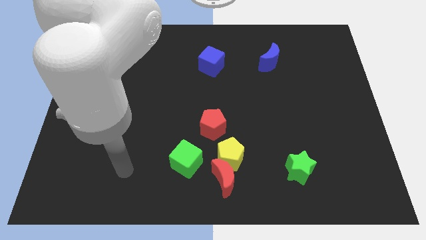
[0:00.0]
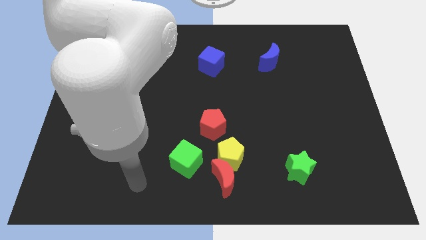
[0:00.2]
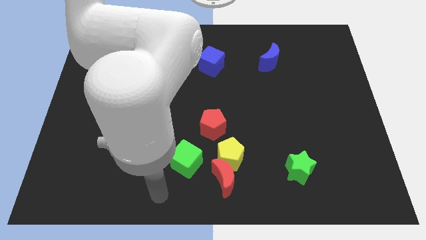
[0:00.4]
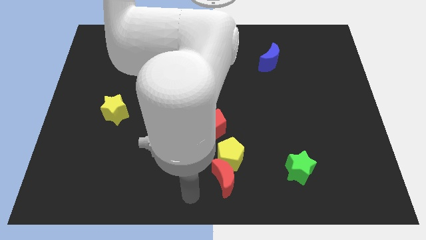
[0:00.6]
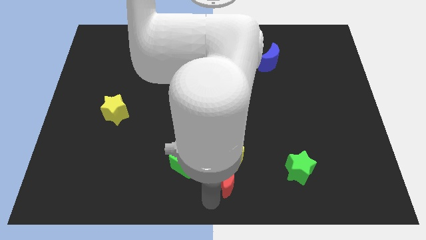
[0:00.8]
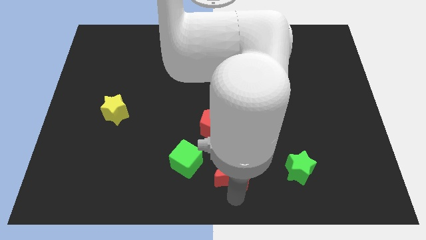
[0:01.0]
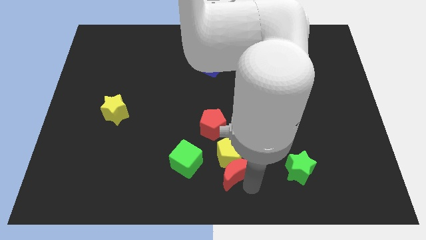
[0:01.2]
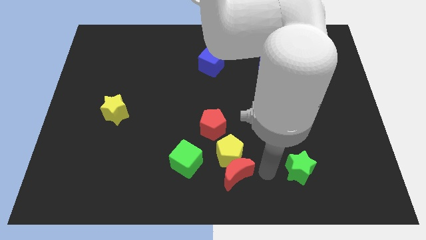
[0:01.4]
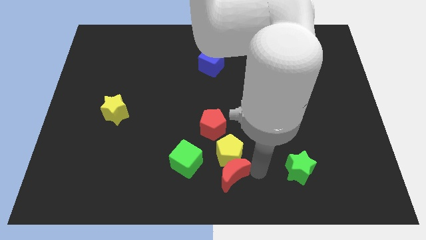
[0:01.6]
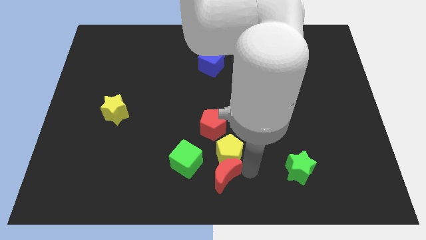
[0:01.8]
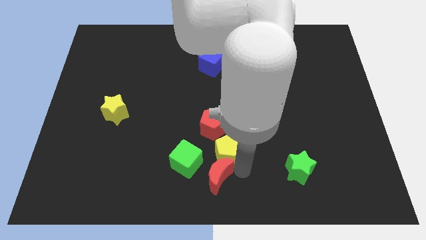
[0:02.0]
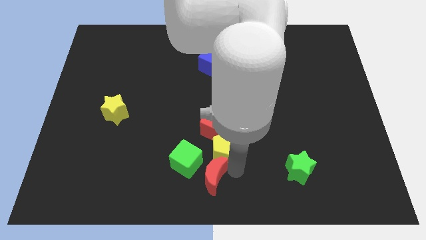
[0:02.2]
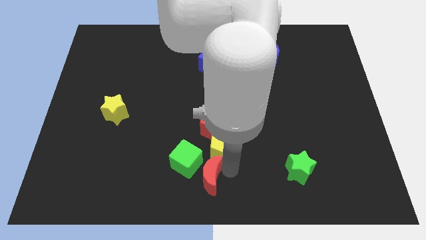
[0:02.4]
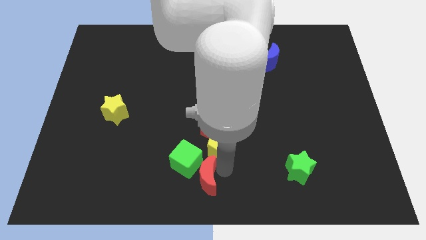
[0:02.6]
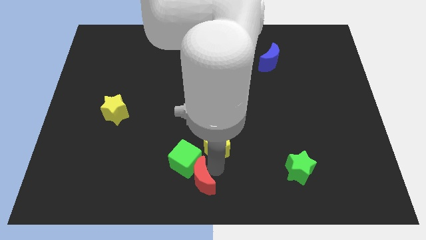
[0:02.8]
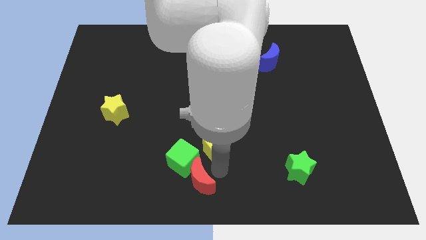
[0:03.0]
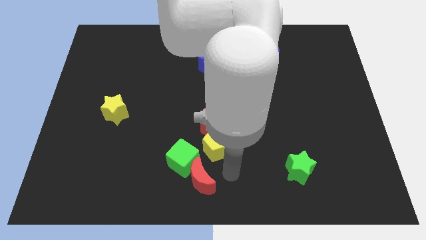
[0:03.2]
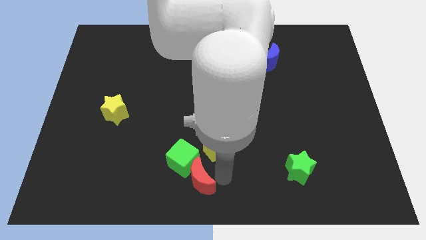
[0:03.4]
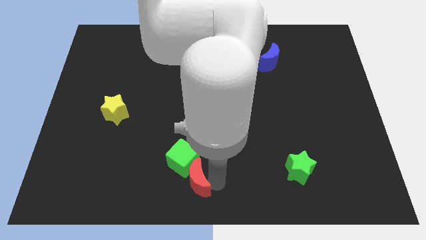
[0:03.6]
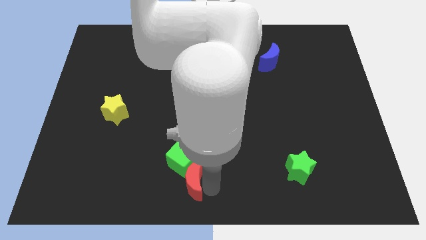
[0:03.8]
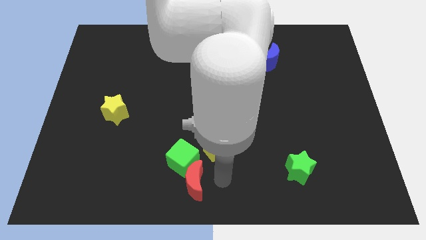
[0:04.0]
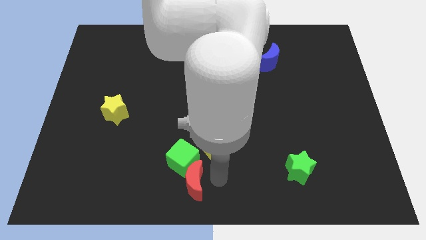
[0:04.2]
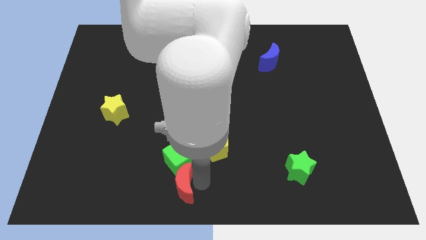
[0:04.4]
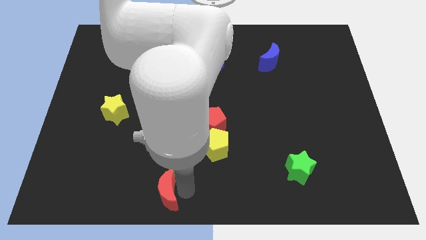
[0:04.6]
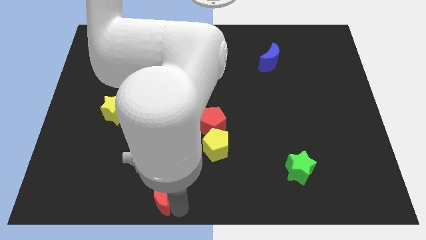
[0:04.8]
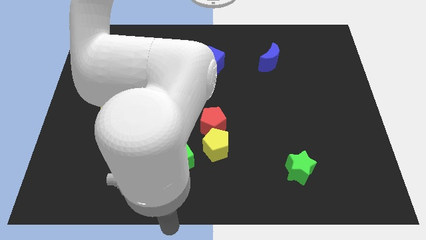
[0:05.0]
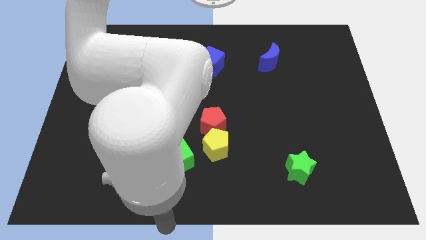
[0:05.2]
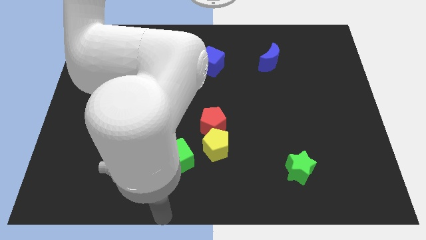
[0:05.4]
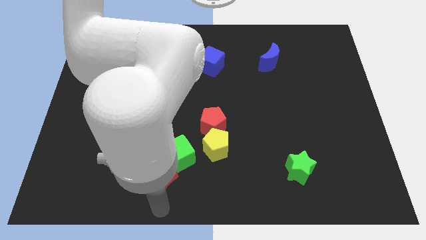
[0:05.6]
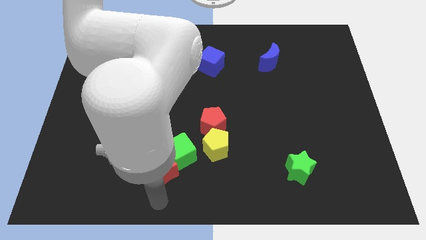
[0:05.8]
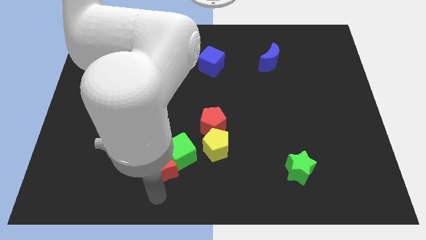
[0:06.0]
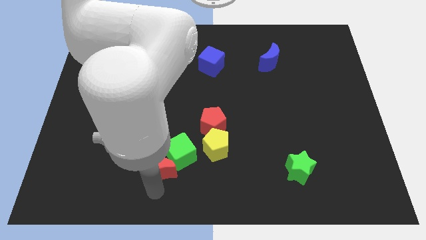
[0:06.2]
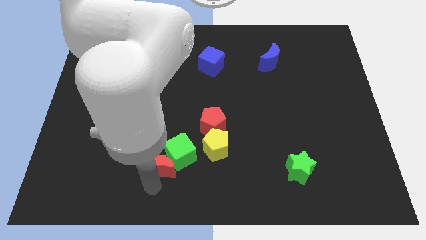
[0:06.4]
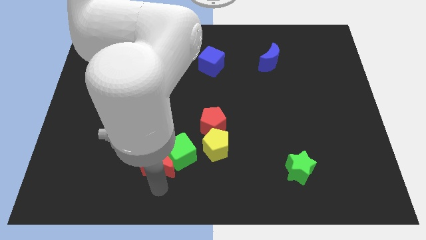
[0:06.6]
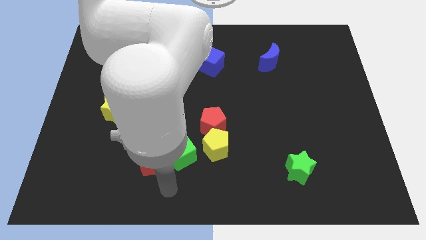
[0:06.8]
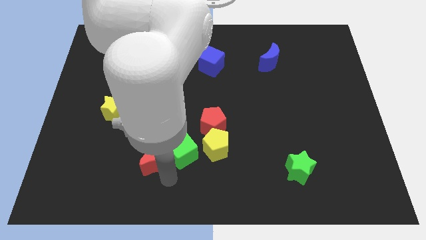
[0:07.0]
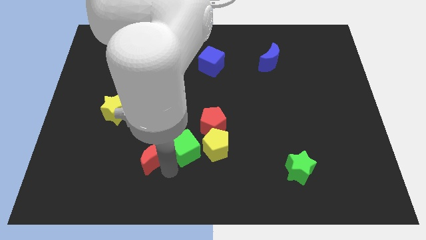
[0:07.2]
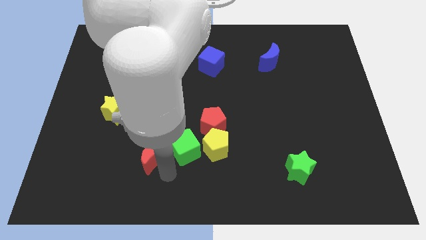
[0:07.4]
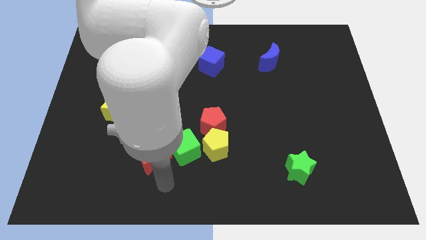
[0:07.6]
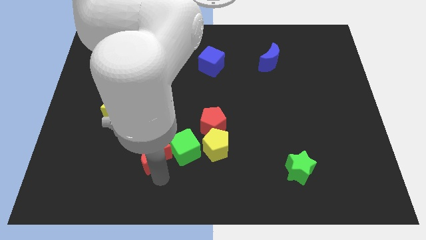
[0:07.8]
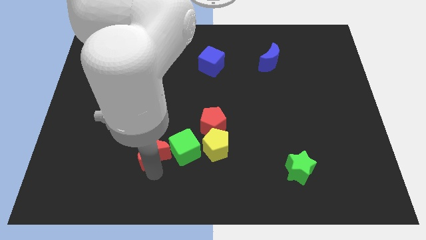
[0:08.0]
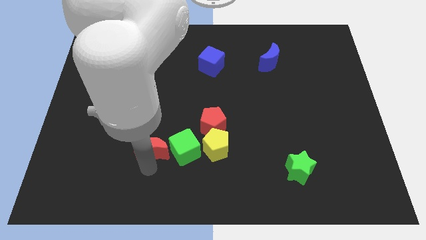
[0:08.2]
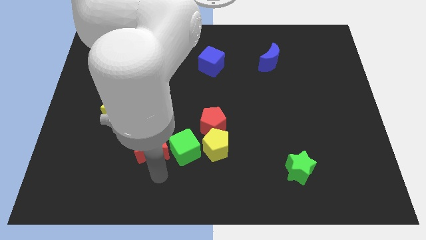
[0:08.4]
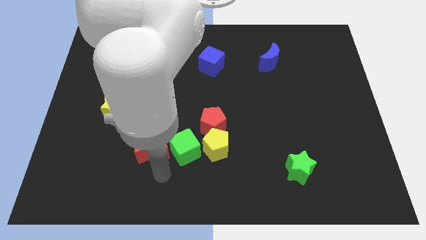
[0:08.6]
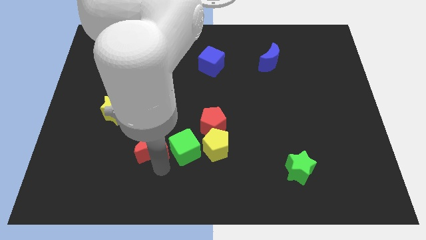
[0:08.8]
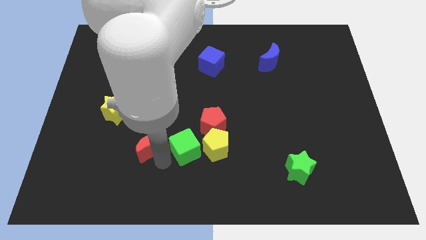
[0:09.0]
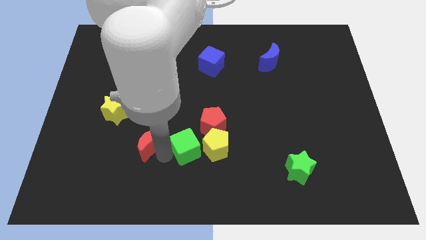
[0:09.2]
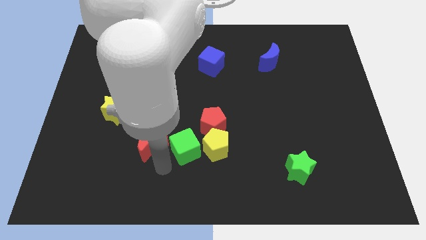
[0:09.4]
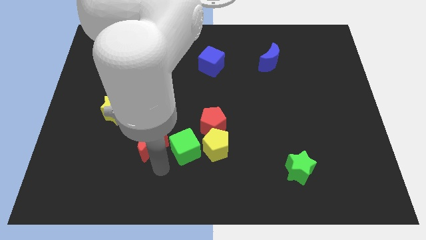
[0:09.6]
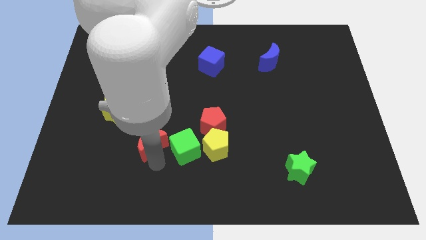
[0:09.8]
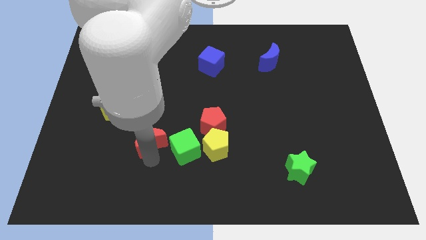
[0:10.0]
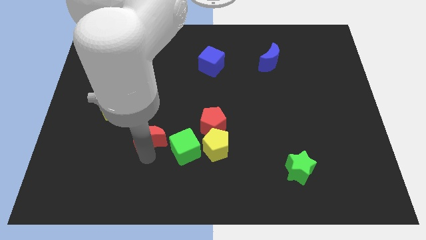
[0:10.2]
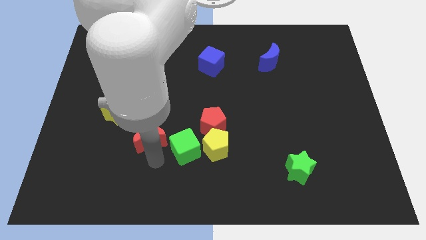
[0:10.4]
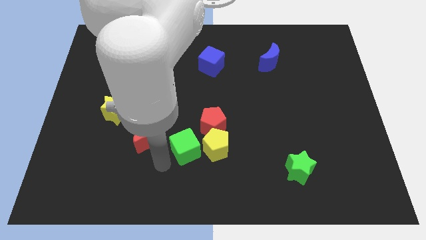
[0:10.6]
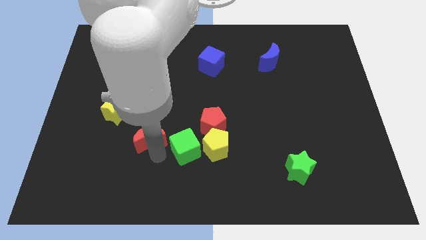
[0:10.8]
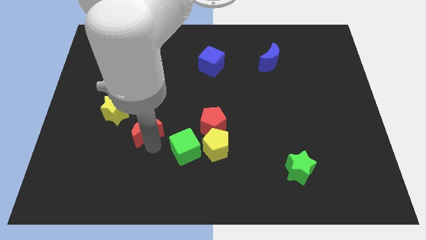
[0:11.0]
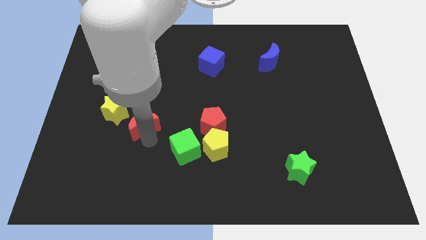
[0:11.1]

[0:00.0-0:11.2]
push the red moon up and left diagonally

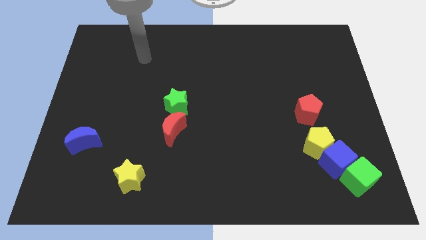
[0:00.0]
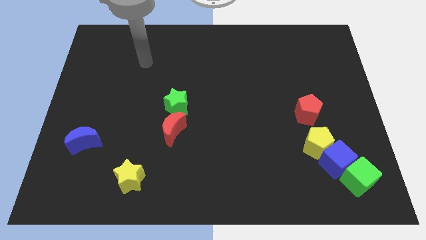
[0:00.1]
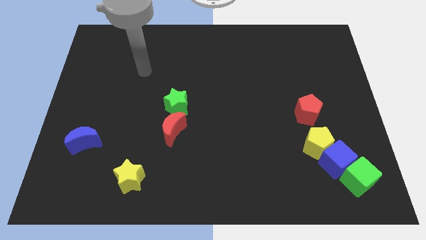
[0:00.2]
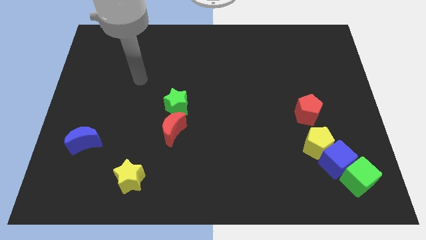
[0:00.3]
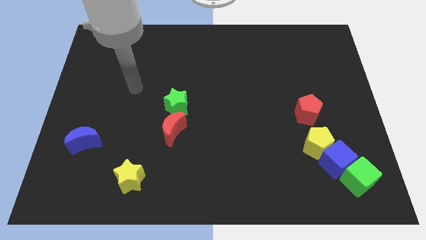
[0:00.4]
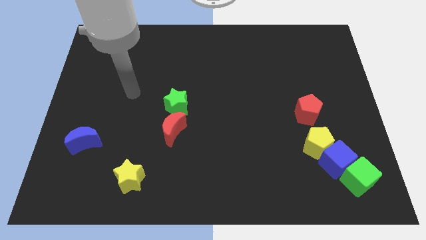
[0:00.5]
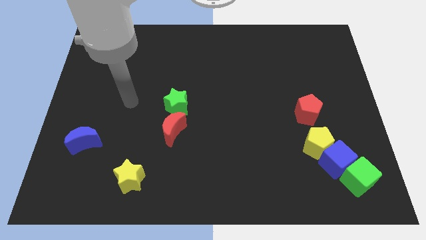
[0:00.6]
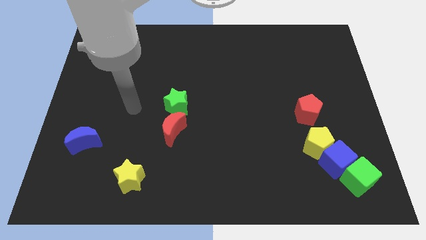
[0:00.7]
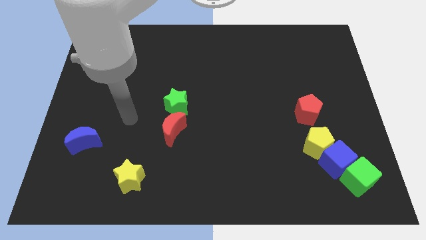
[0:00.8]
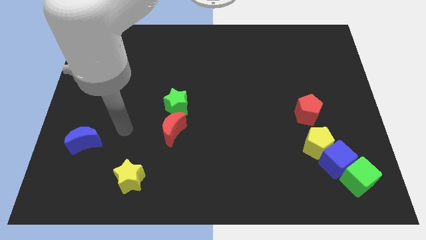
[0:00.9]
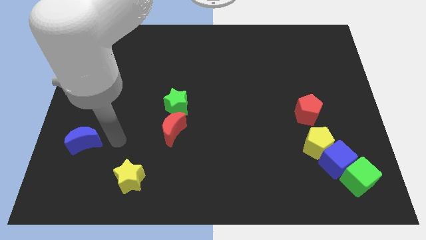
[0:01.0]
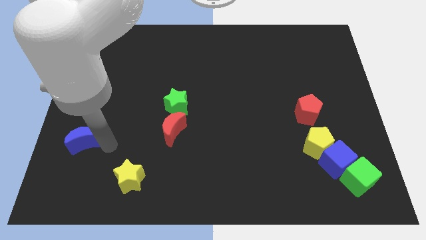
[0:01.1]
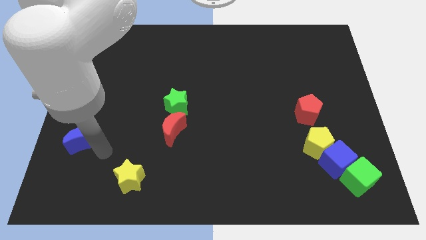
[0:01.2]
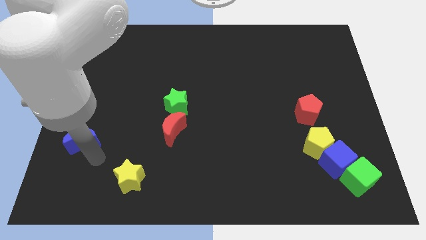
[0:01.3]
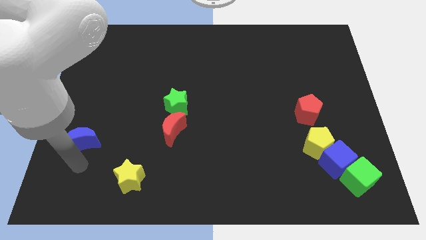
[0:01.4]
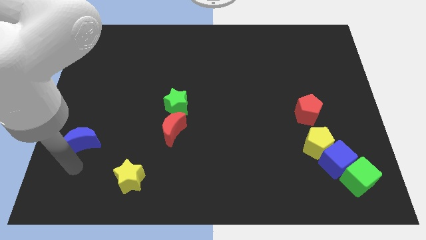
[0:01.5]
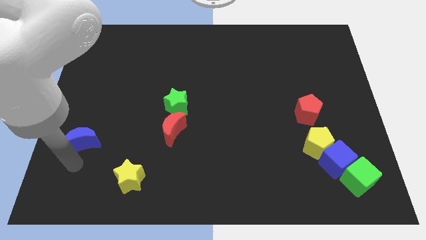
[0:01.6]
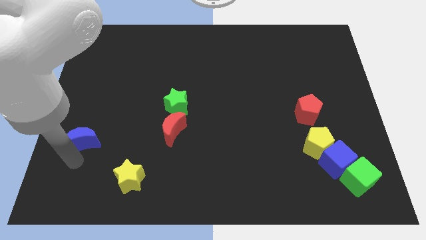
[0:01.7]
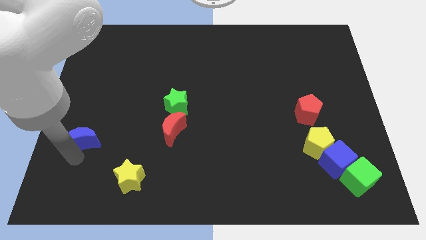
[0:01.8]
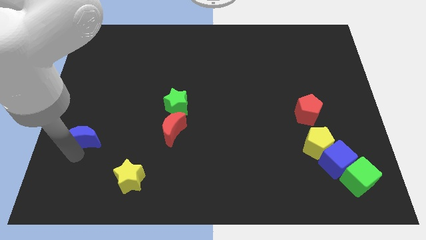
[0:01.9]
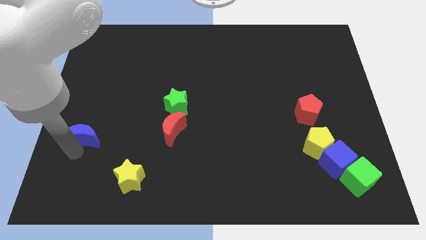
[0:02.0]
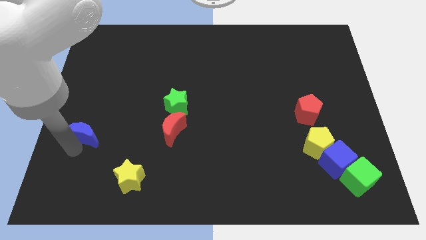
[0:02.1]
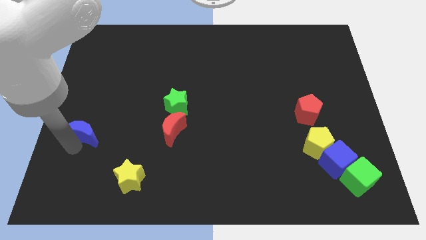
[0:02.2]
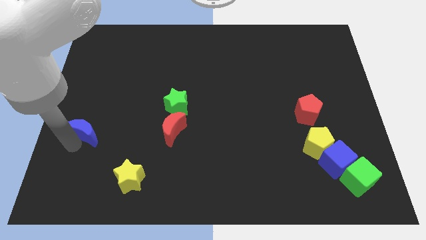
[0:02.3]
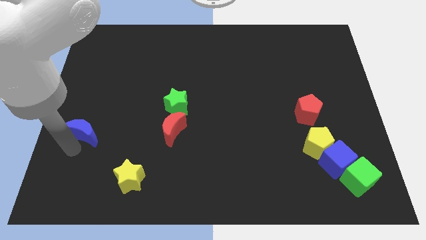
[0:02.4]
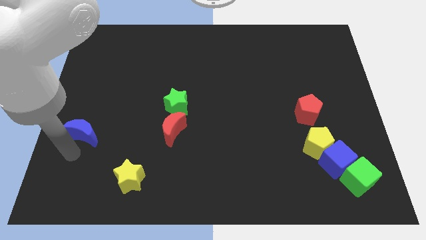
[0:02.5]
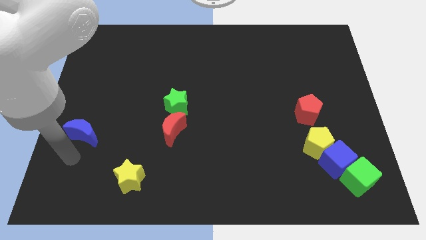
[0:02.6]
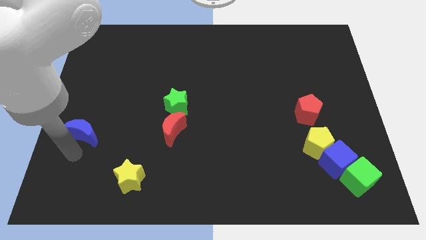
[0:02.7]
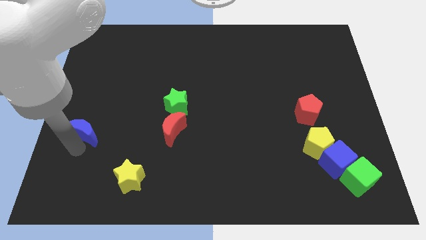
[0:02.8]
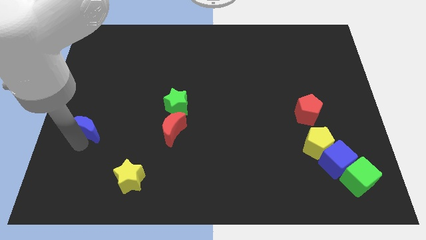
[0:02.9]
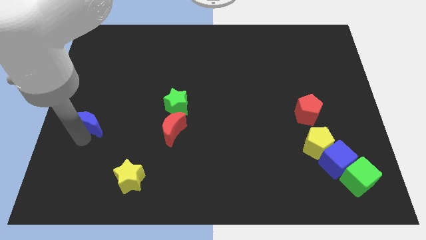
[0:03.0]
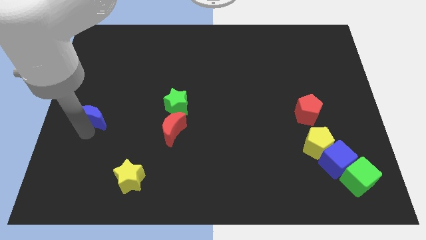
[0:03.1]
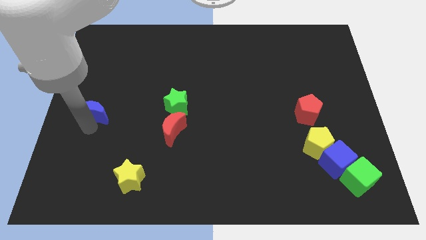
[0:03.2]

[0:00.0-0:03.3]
slightly push the blue moon up
